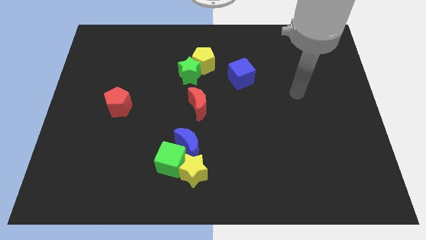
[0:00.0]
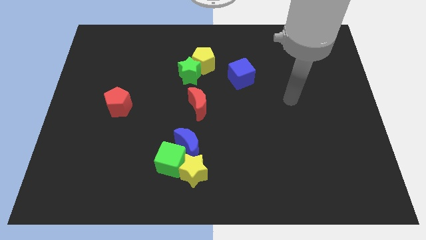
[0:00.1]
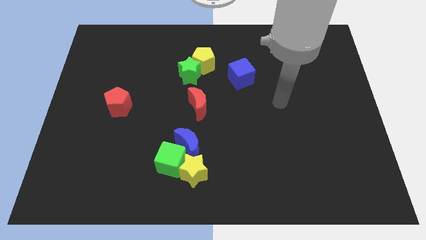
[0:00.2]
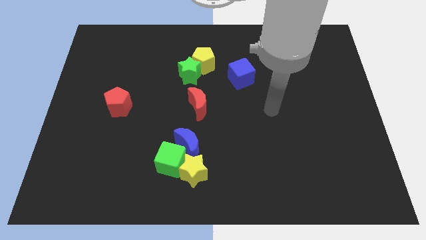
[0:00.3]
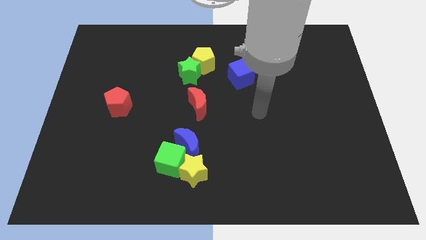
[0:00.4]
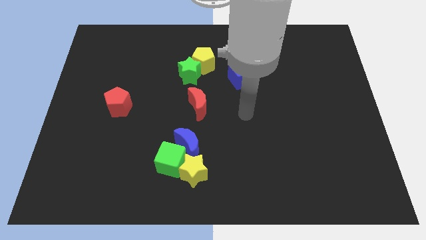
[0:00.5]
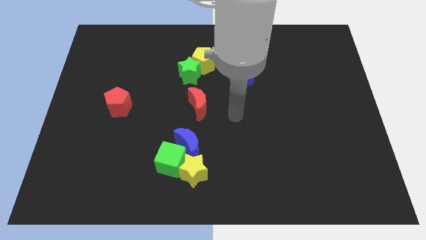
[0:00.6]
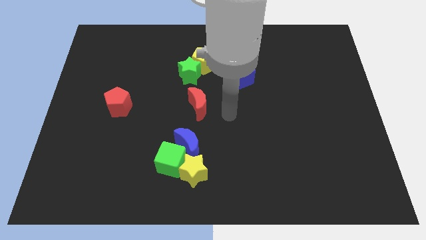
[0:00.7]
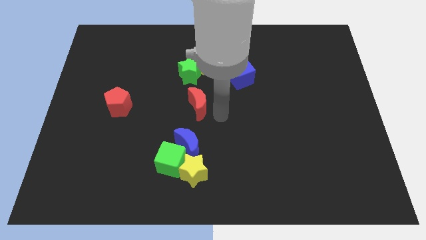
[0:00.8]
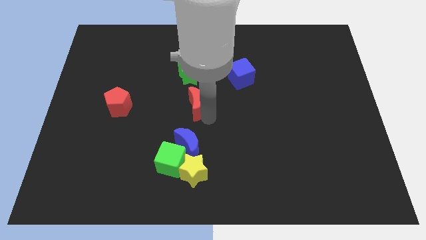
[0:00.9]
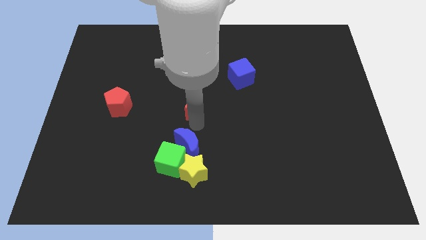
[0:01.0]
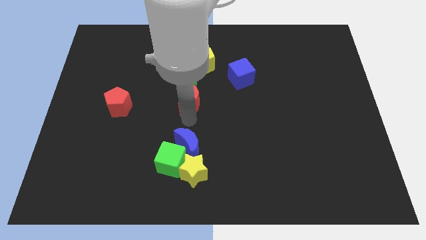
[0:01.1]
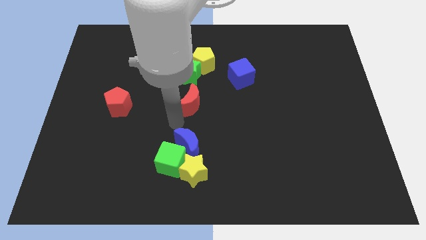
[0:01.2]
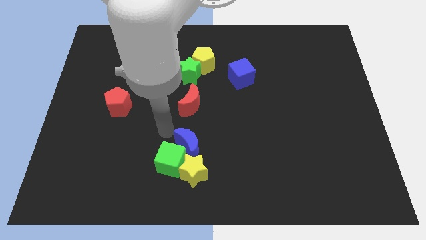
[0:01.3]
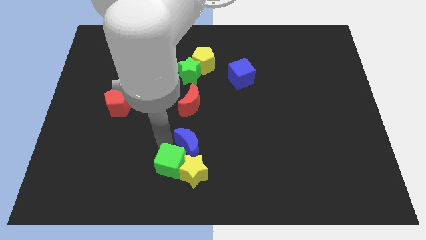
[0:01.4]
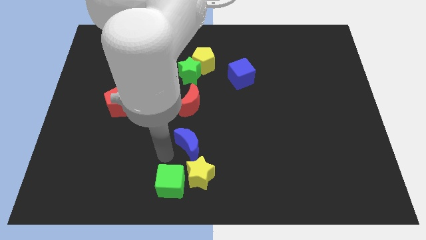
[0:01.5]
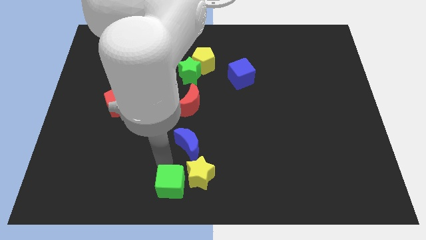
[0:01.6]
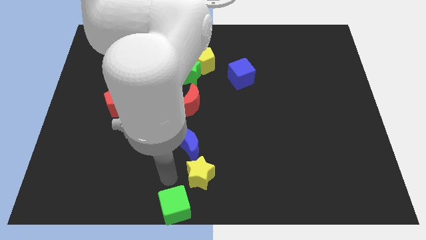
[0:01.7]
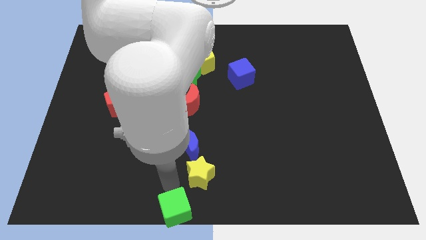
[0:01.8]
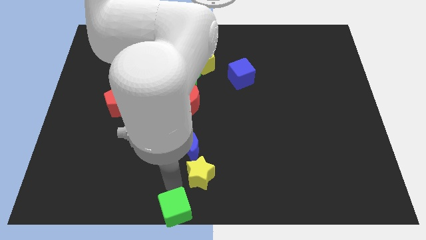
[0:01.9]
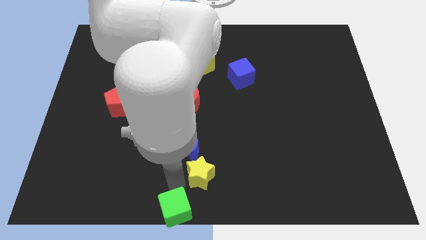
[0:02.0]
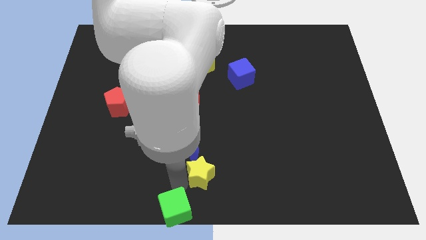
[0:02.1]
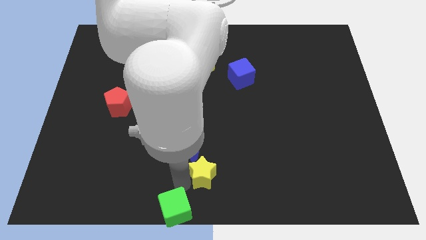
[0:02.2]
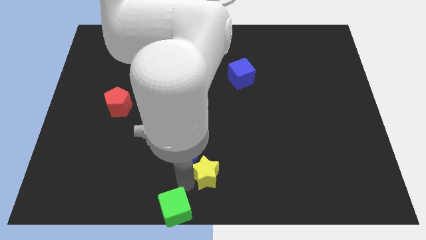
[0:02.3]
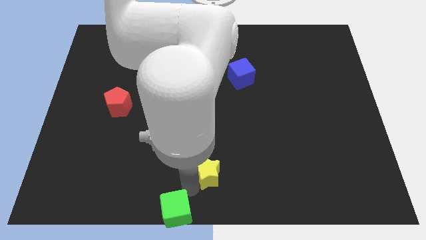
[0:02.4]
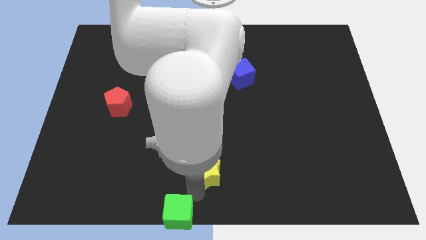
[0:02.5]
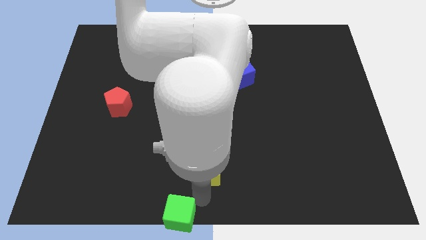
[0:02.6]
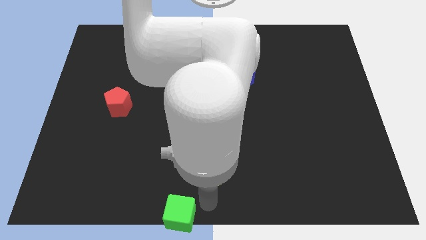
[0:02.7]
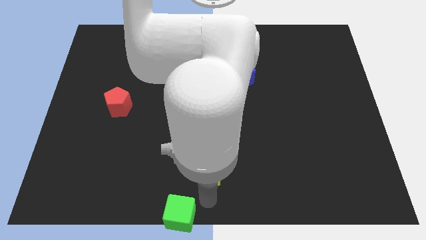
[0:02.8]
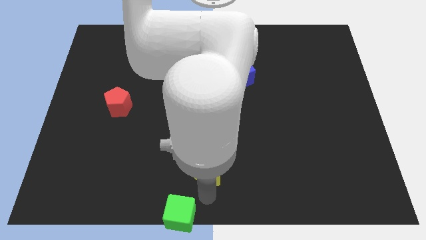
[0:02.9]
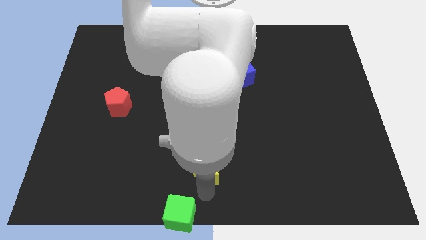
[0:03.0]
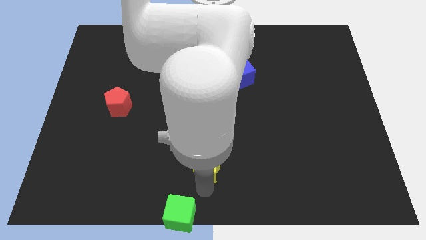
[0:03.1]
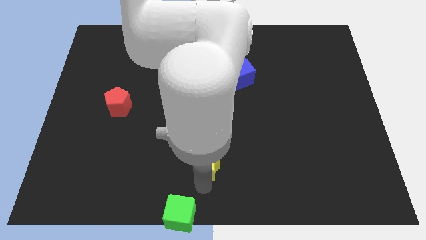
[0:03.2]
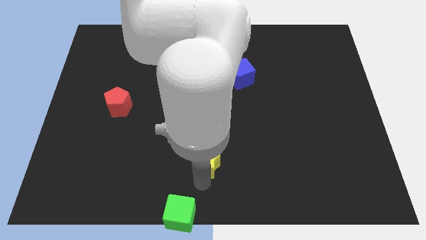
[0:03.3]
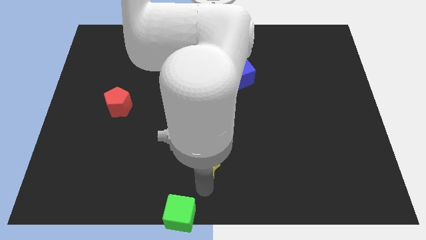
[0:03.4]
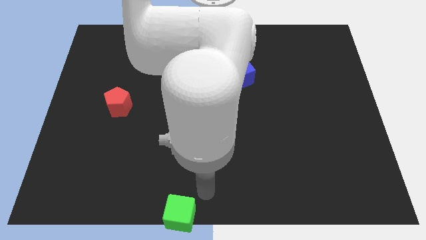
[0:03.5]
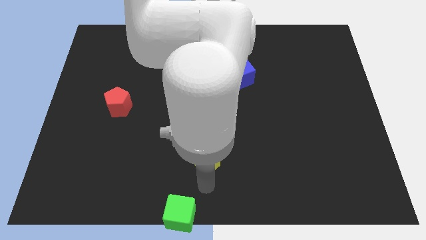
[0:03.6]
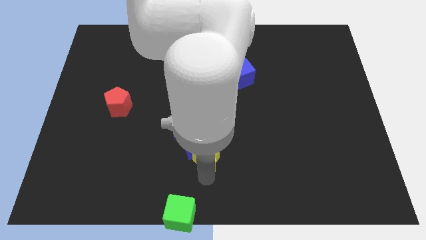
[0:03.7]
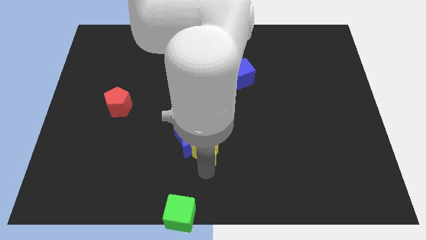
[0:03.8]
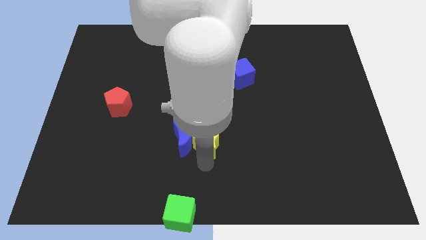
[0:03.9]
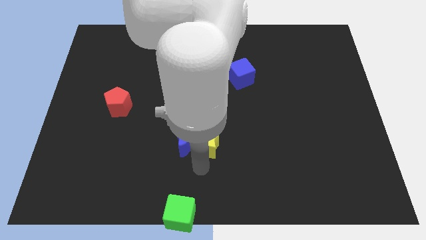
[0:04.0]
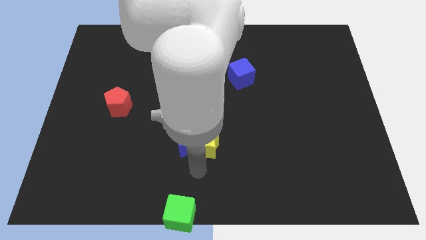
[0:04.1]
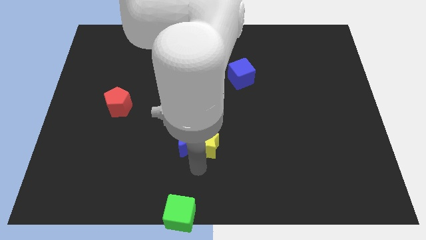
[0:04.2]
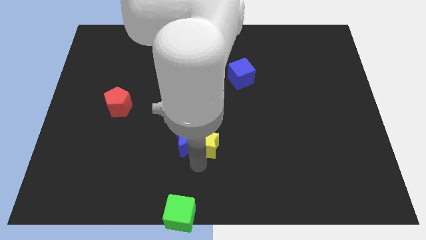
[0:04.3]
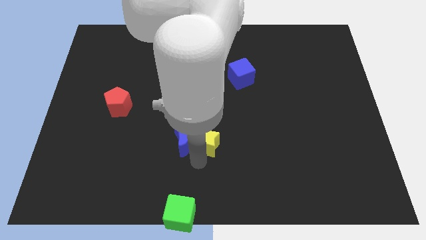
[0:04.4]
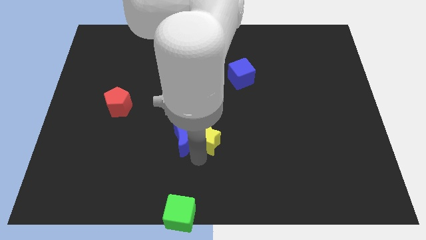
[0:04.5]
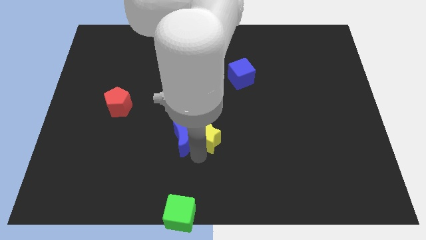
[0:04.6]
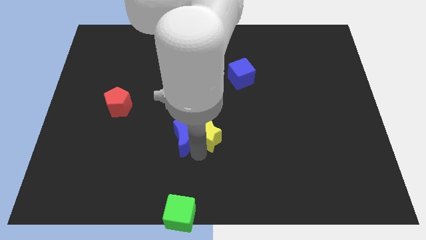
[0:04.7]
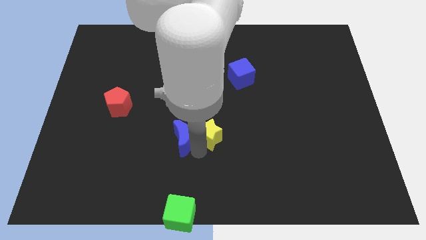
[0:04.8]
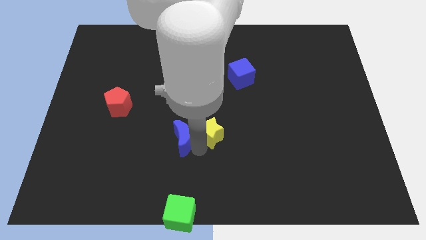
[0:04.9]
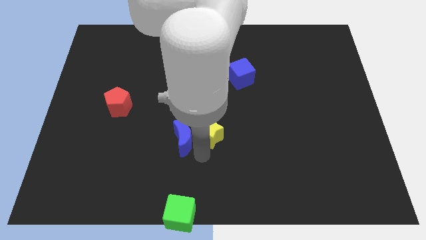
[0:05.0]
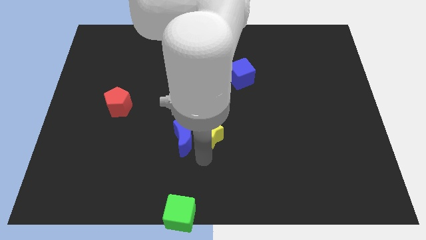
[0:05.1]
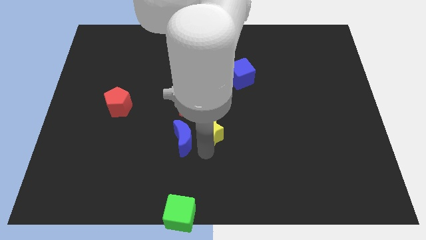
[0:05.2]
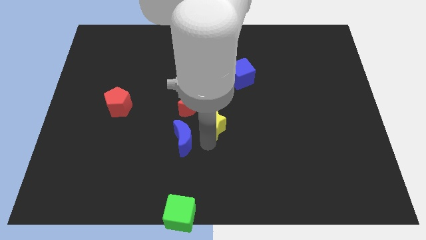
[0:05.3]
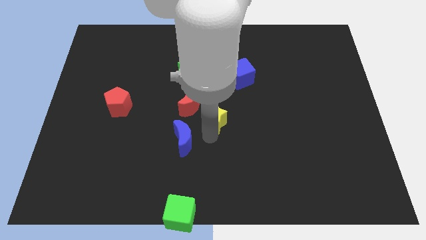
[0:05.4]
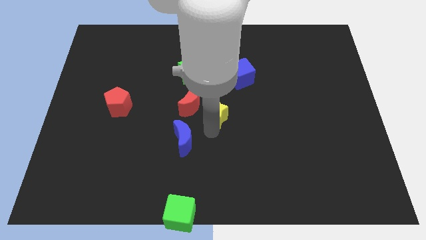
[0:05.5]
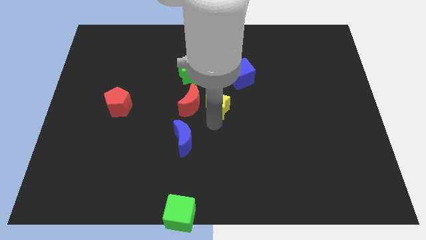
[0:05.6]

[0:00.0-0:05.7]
slide the yellow star diagonally up and to the right of the red moon

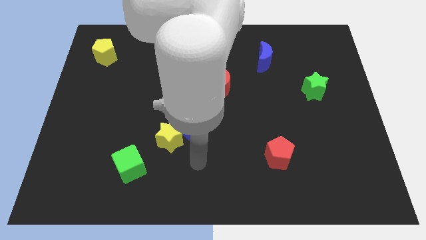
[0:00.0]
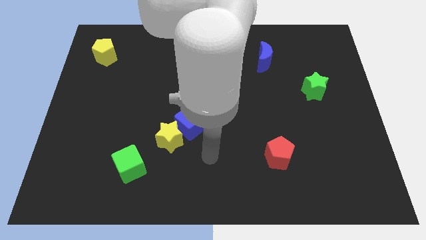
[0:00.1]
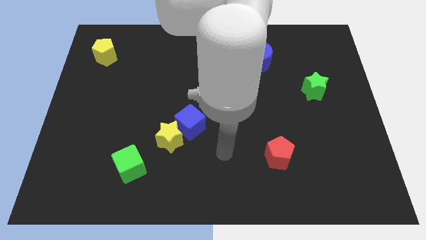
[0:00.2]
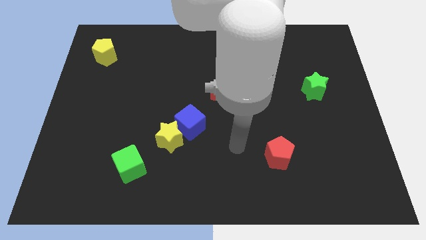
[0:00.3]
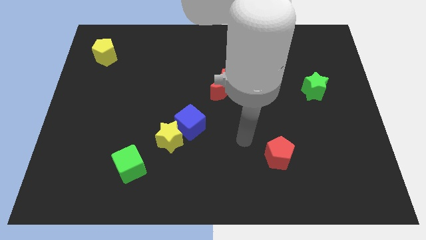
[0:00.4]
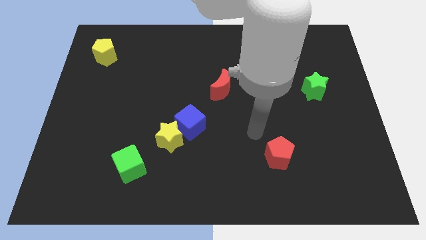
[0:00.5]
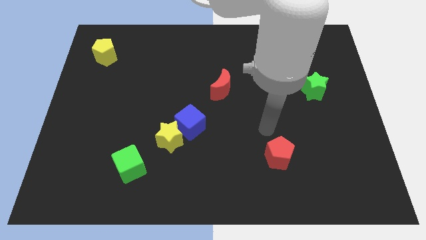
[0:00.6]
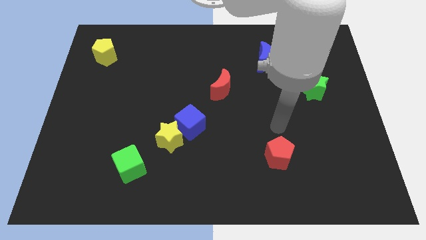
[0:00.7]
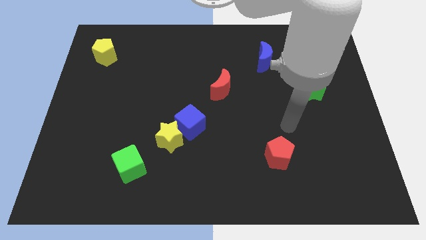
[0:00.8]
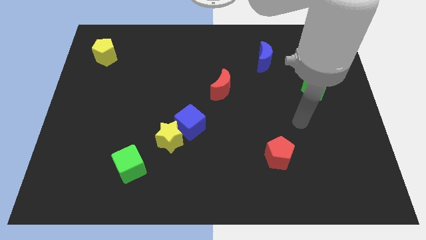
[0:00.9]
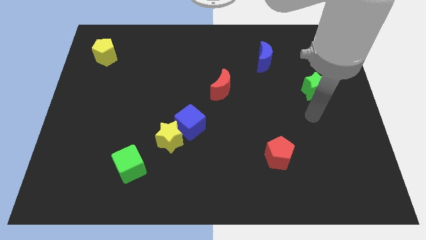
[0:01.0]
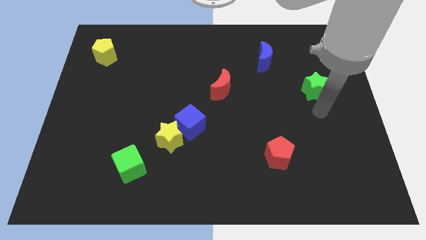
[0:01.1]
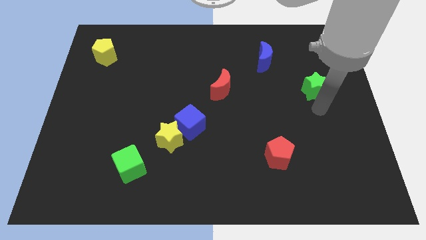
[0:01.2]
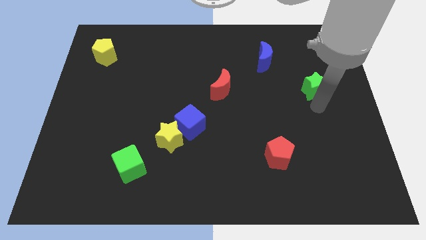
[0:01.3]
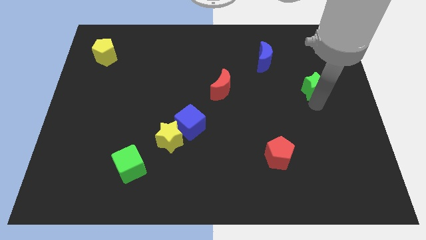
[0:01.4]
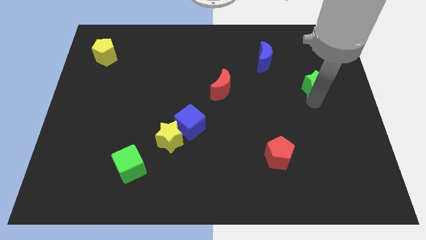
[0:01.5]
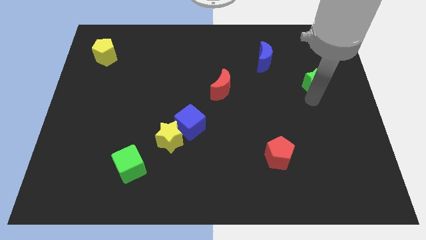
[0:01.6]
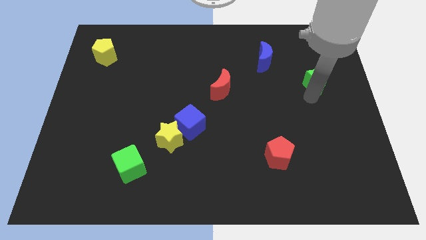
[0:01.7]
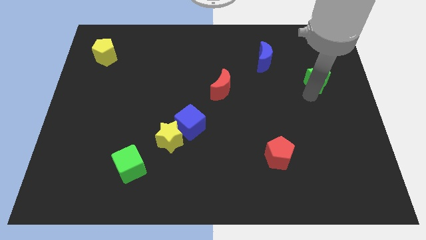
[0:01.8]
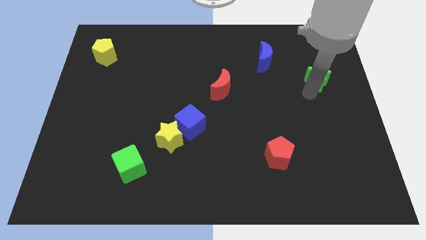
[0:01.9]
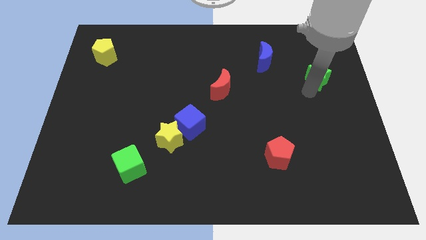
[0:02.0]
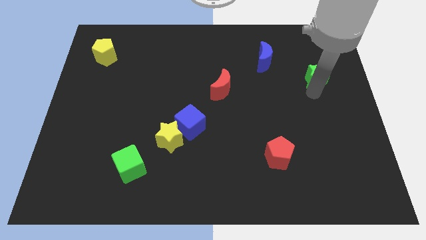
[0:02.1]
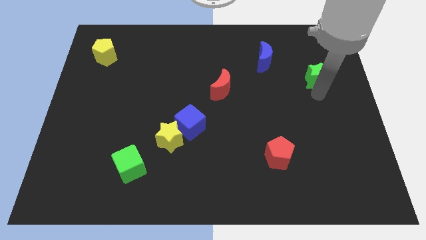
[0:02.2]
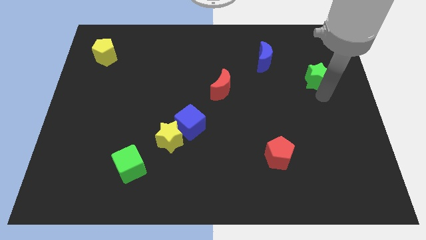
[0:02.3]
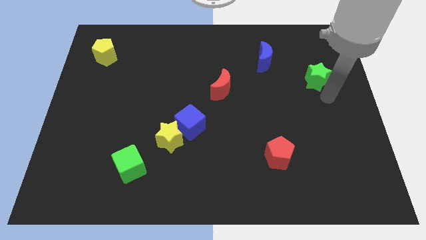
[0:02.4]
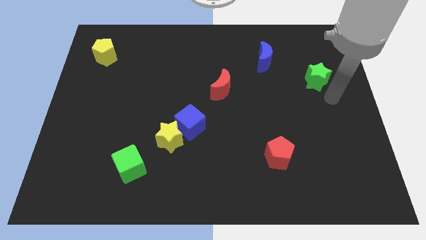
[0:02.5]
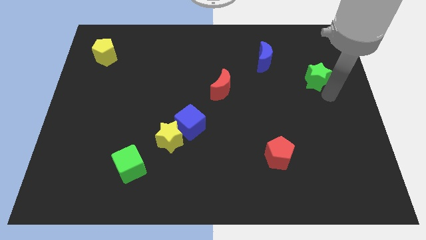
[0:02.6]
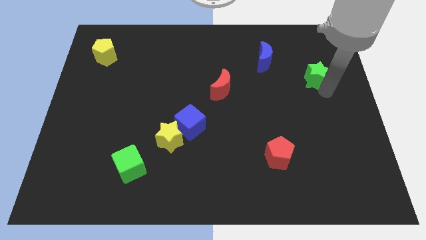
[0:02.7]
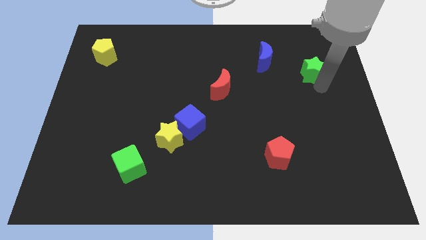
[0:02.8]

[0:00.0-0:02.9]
move the green star to the right of the blue moon
